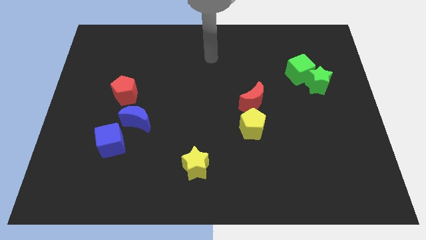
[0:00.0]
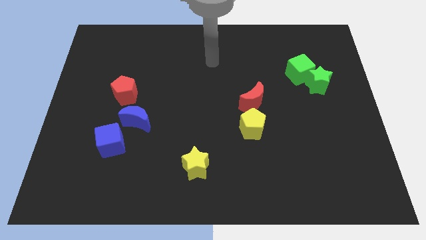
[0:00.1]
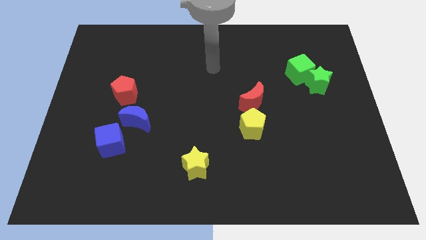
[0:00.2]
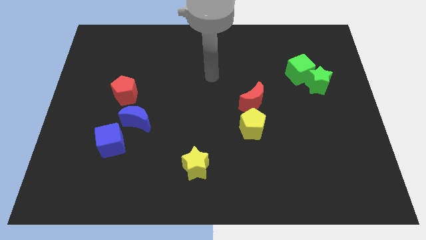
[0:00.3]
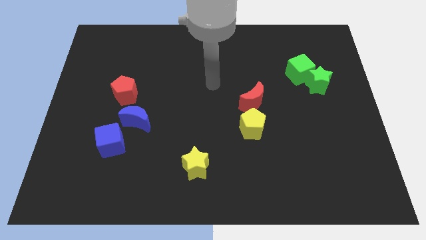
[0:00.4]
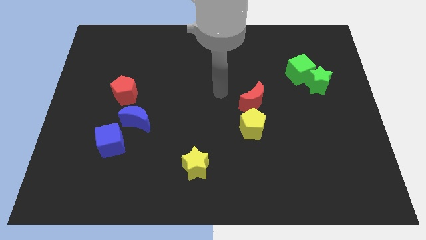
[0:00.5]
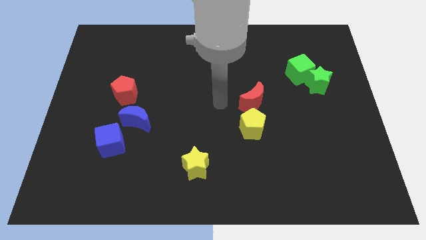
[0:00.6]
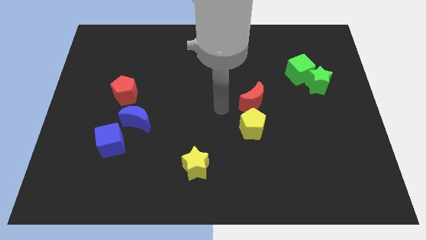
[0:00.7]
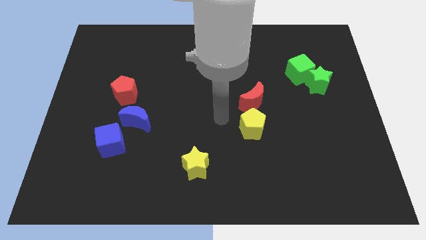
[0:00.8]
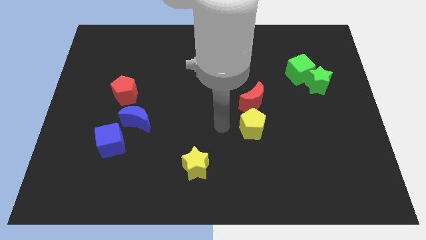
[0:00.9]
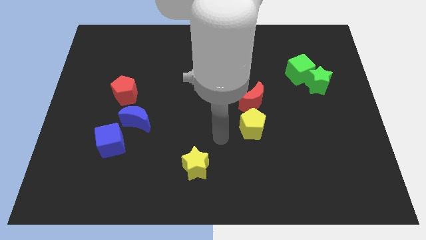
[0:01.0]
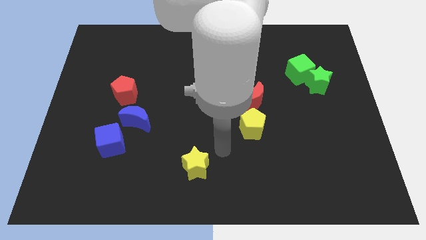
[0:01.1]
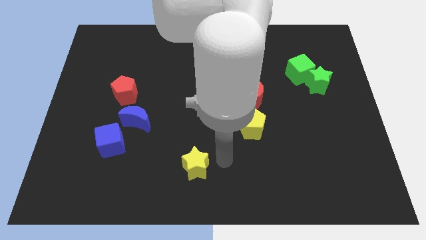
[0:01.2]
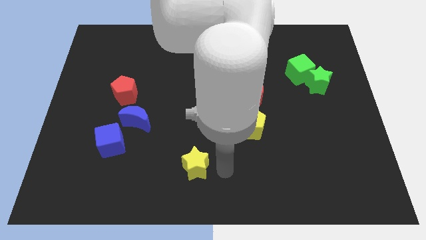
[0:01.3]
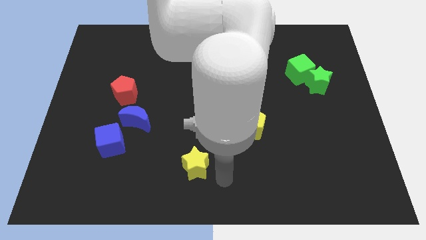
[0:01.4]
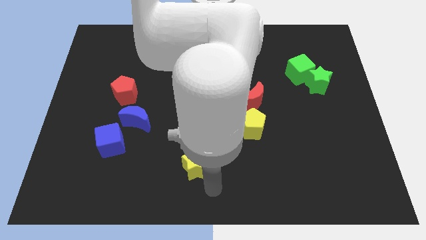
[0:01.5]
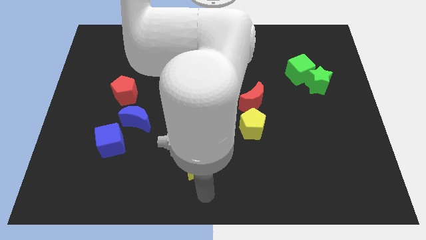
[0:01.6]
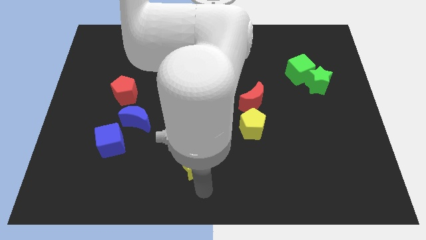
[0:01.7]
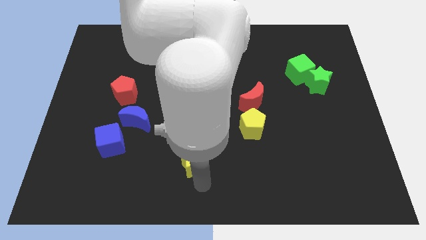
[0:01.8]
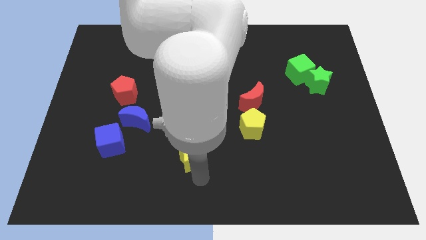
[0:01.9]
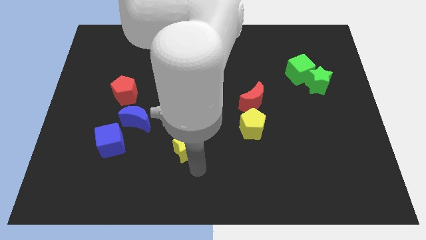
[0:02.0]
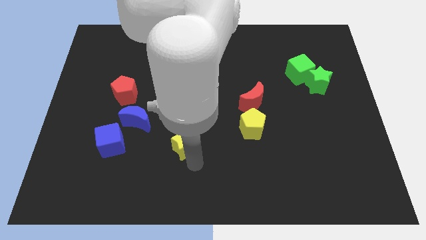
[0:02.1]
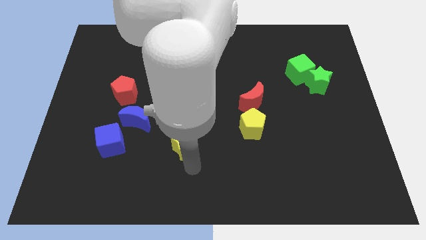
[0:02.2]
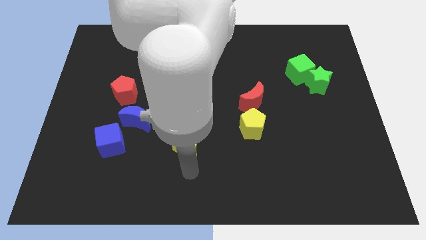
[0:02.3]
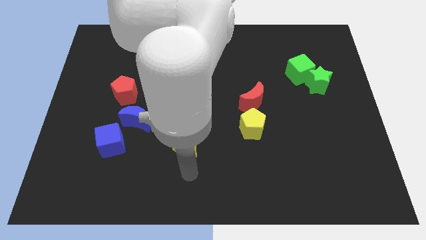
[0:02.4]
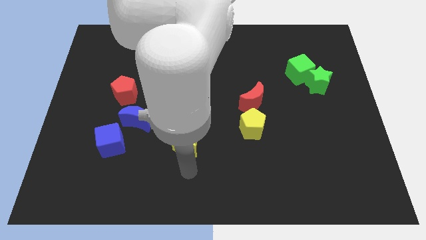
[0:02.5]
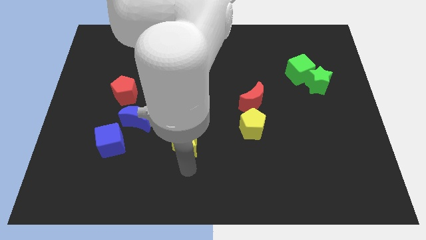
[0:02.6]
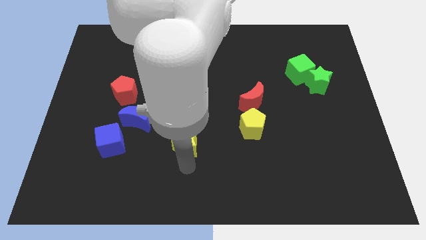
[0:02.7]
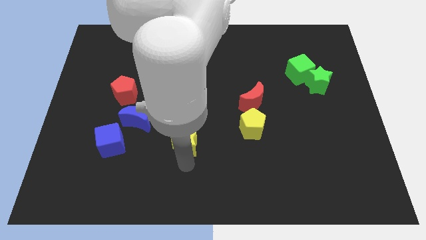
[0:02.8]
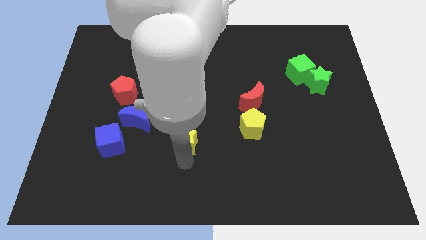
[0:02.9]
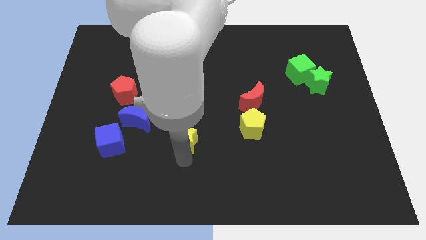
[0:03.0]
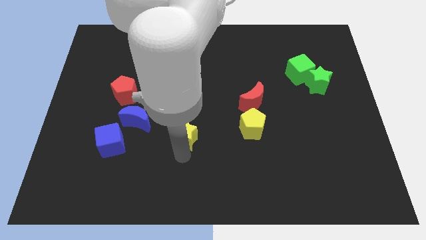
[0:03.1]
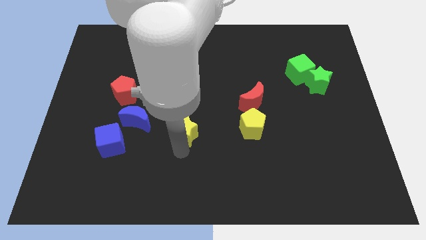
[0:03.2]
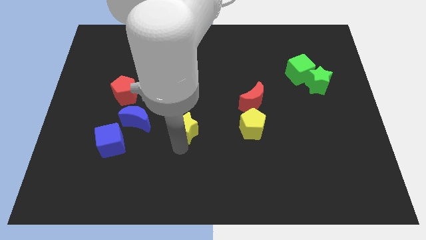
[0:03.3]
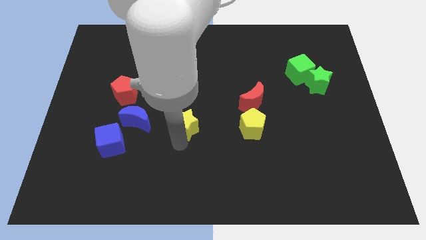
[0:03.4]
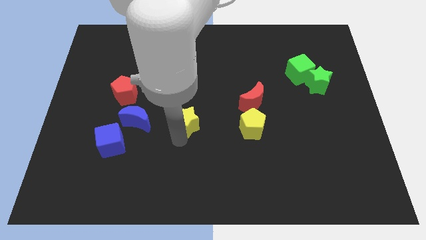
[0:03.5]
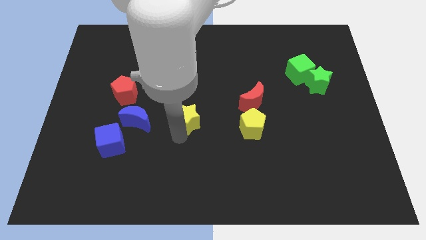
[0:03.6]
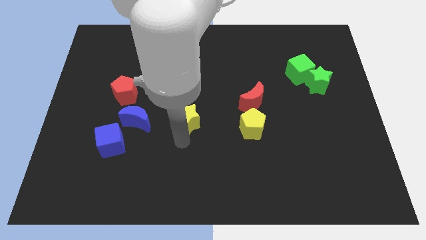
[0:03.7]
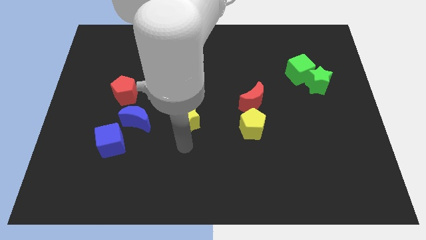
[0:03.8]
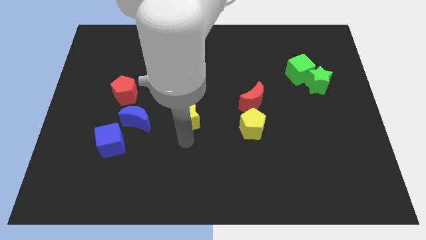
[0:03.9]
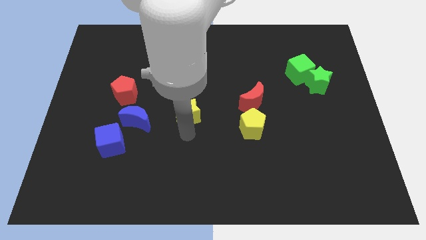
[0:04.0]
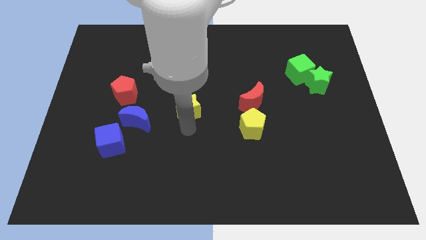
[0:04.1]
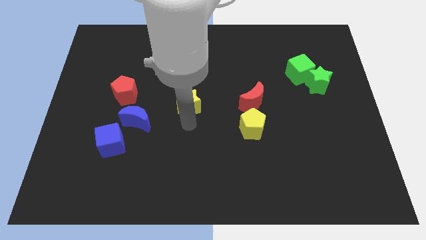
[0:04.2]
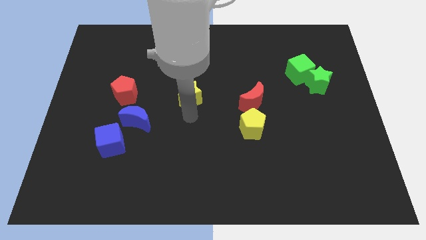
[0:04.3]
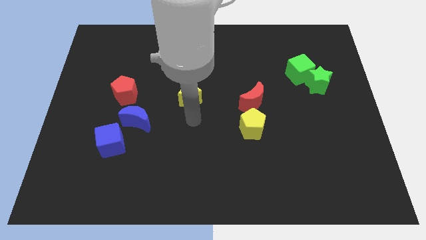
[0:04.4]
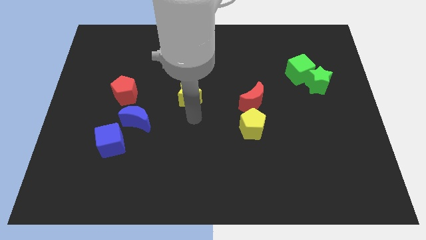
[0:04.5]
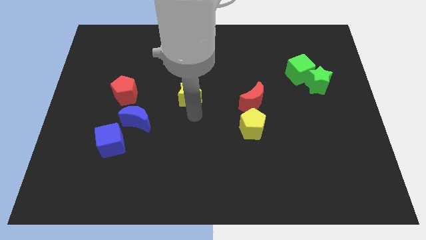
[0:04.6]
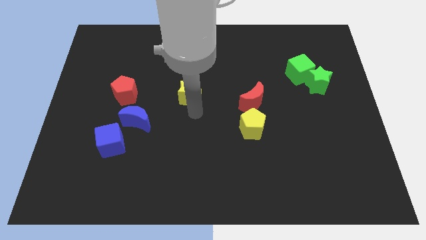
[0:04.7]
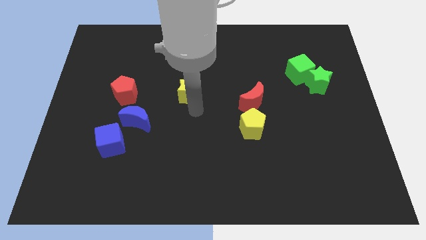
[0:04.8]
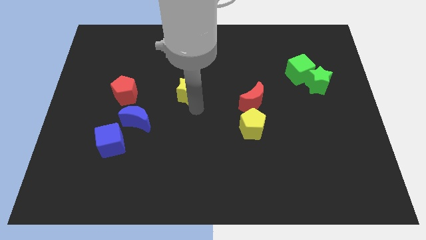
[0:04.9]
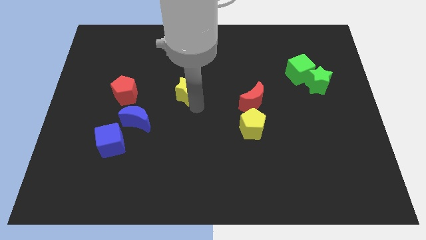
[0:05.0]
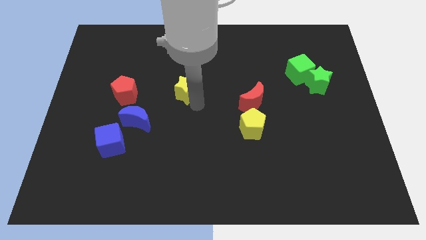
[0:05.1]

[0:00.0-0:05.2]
push the yellow star upwards

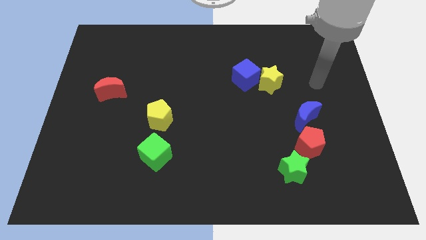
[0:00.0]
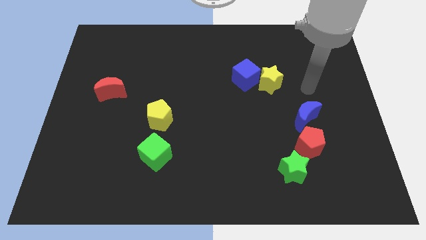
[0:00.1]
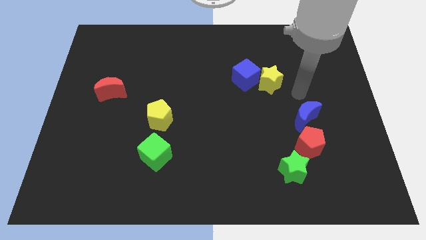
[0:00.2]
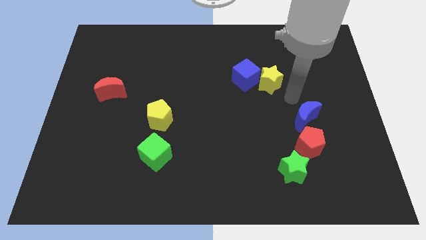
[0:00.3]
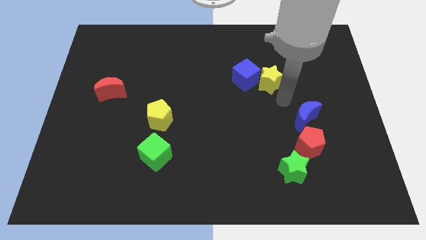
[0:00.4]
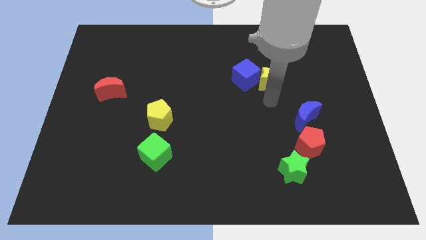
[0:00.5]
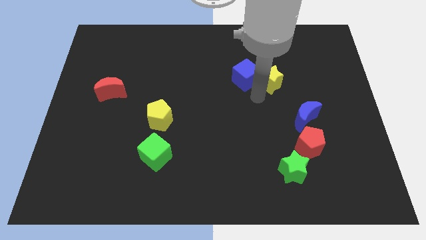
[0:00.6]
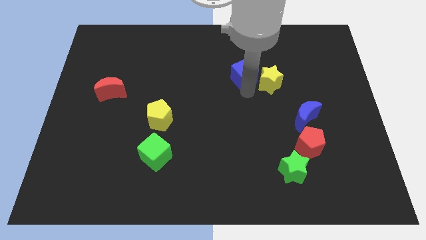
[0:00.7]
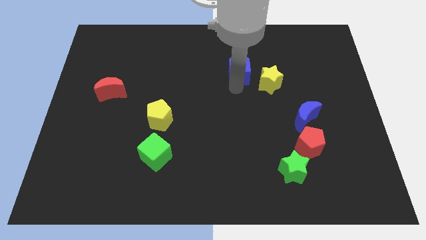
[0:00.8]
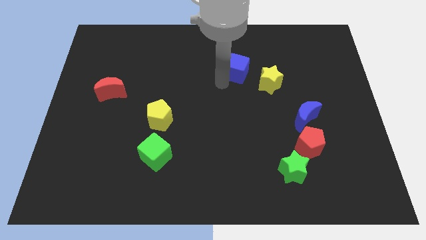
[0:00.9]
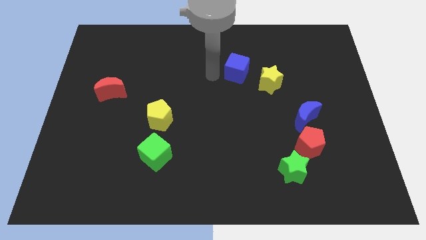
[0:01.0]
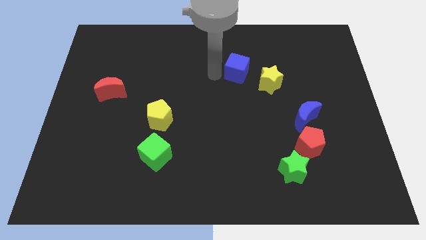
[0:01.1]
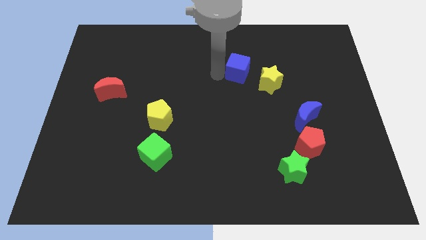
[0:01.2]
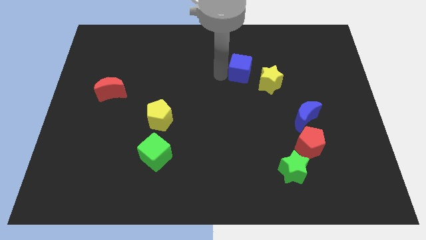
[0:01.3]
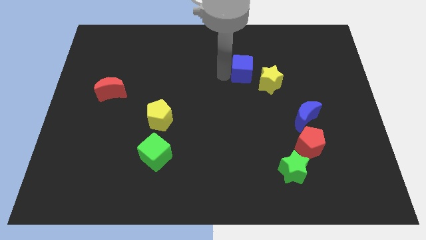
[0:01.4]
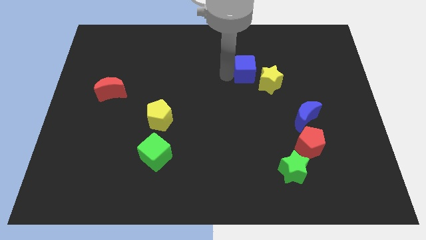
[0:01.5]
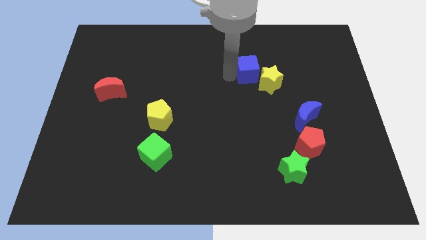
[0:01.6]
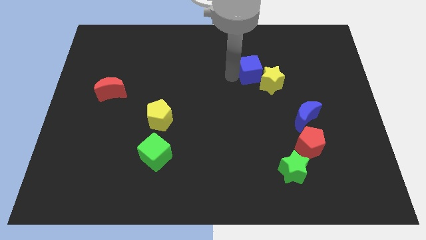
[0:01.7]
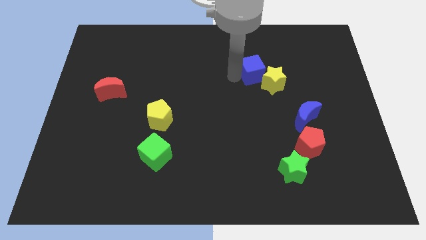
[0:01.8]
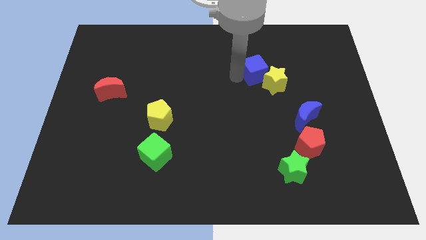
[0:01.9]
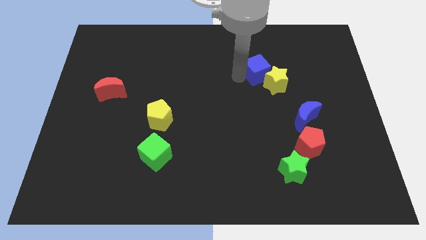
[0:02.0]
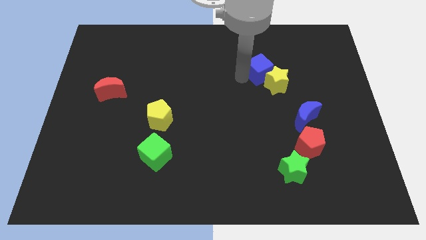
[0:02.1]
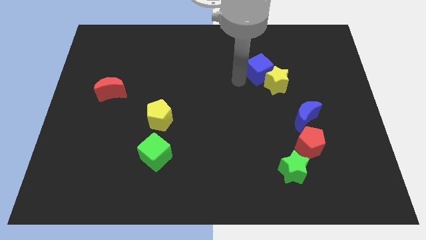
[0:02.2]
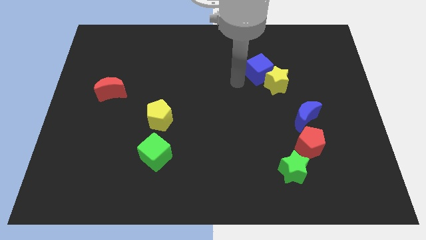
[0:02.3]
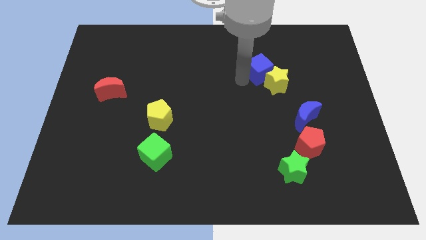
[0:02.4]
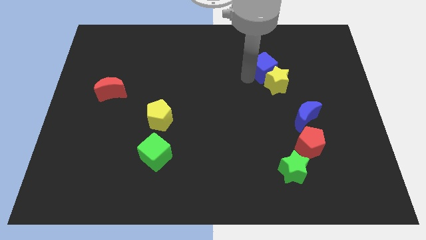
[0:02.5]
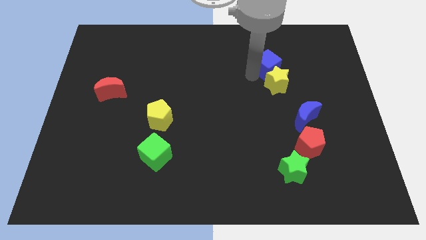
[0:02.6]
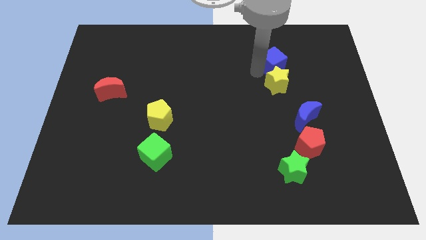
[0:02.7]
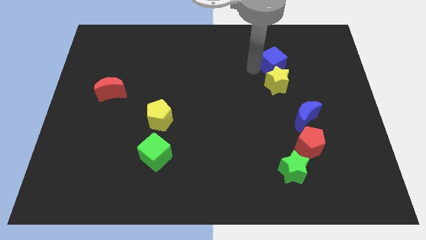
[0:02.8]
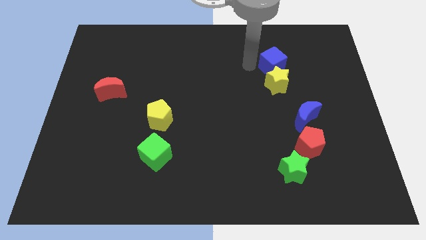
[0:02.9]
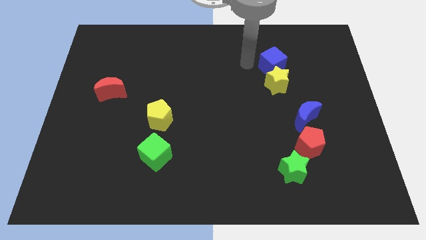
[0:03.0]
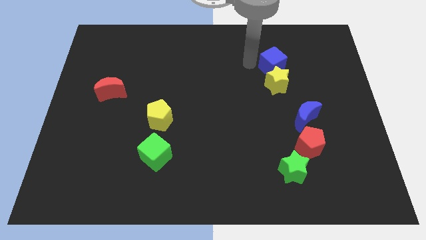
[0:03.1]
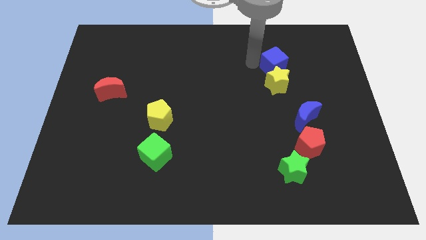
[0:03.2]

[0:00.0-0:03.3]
move the blue cube to the right slightly
